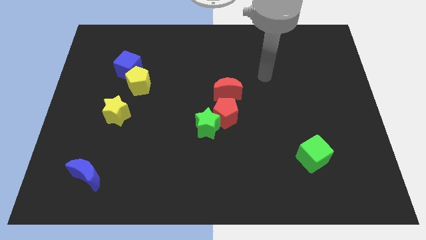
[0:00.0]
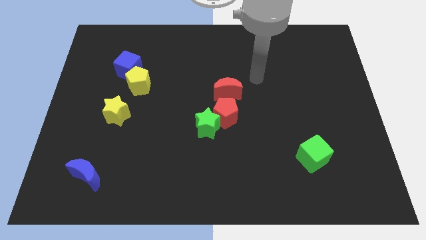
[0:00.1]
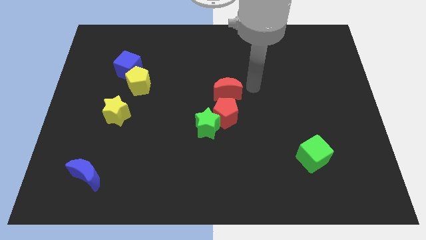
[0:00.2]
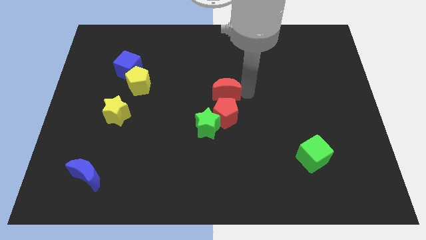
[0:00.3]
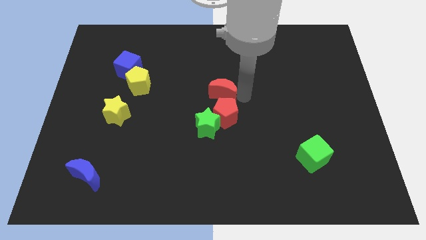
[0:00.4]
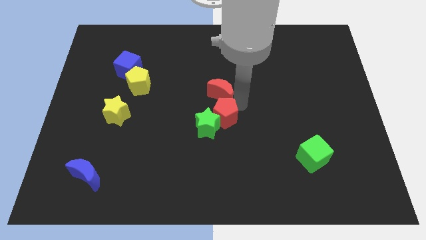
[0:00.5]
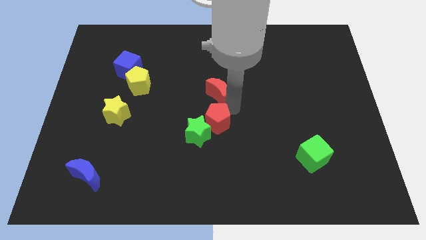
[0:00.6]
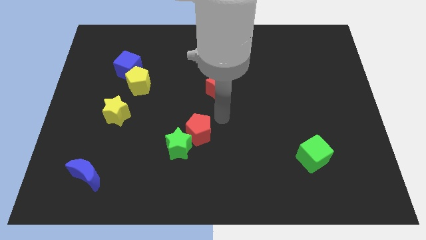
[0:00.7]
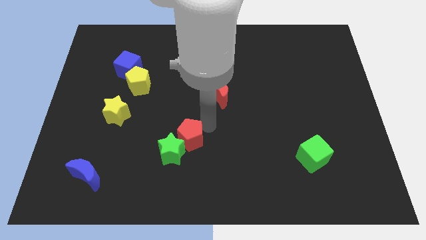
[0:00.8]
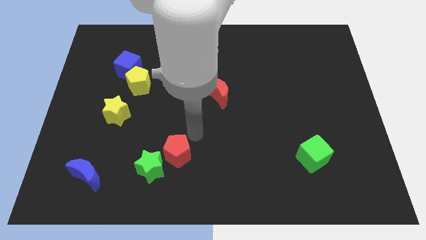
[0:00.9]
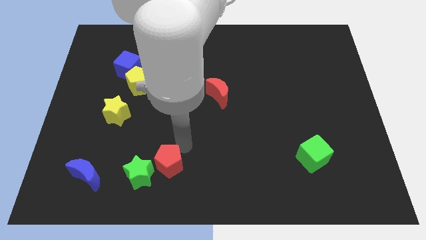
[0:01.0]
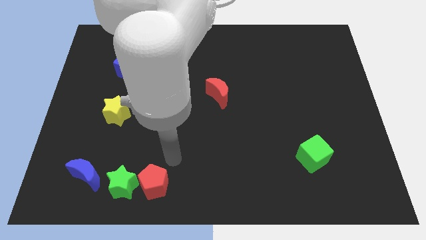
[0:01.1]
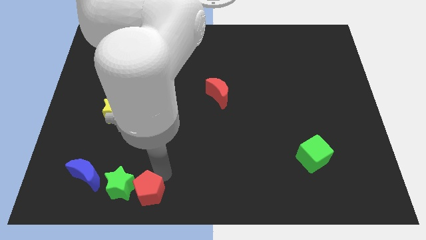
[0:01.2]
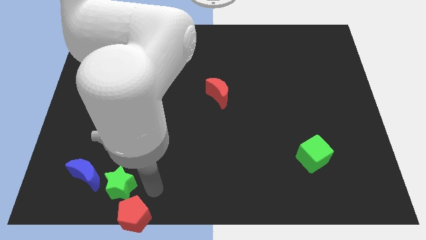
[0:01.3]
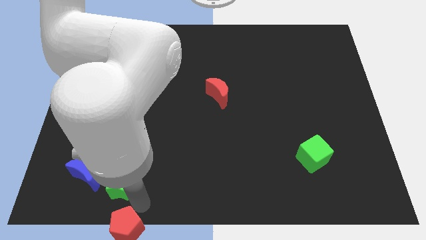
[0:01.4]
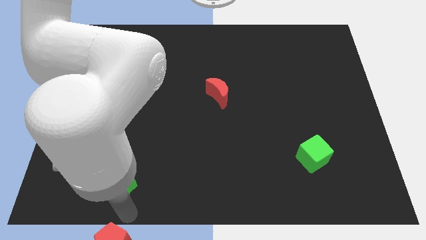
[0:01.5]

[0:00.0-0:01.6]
move the green star away from the red pentagon

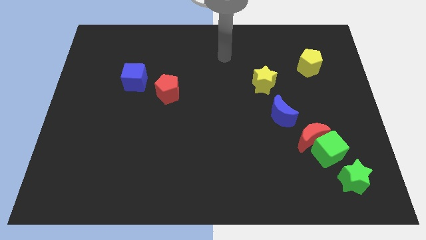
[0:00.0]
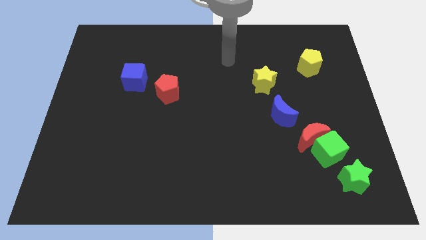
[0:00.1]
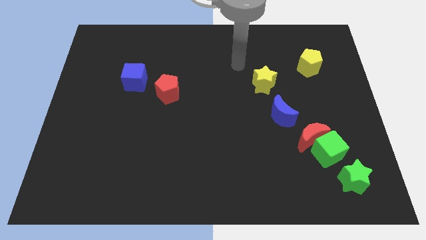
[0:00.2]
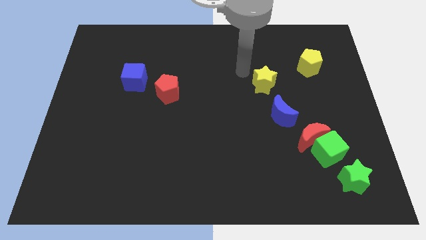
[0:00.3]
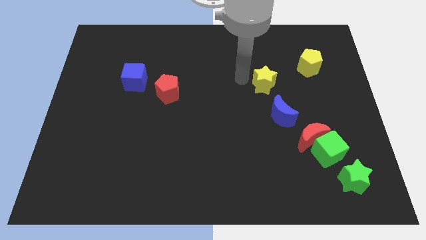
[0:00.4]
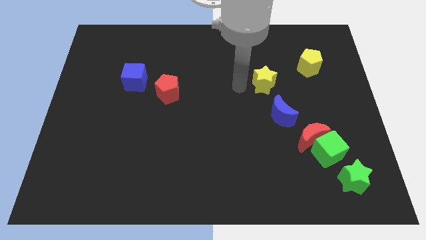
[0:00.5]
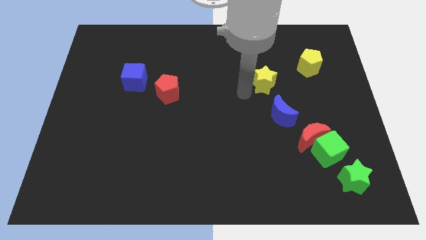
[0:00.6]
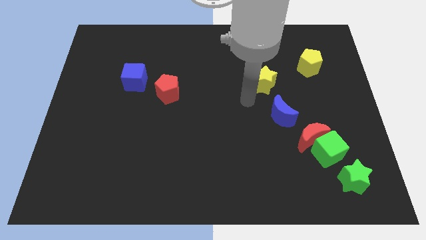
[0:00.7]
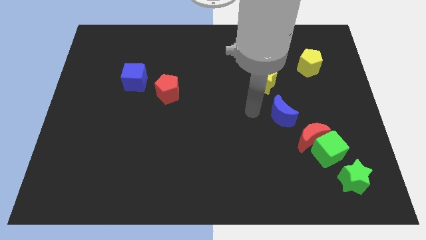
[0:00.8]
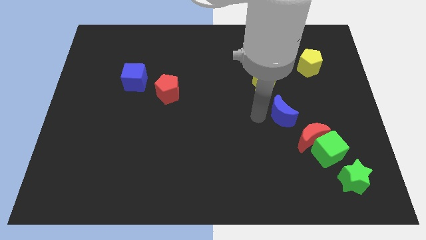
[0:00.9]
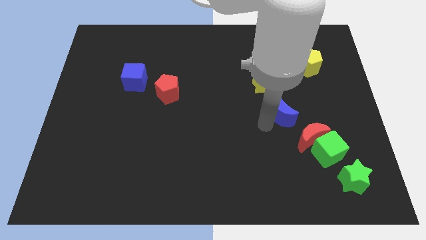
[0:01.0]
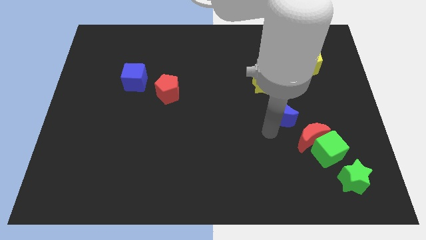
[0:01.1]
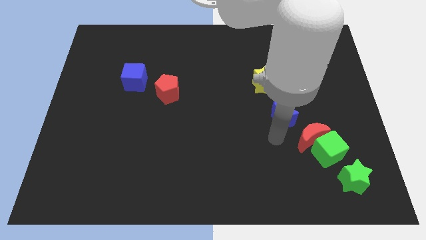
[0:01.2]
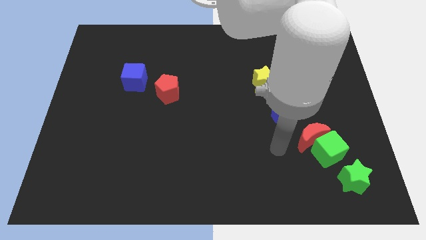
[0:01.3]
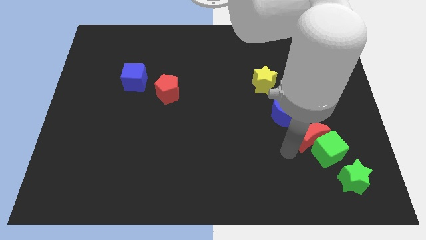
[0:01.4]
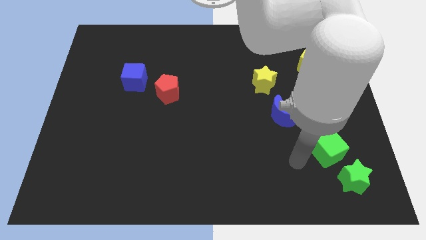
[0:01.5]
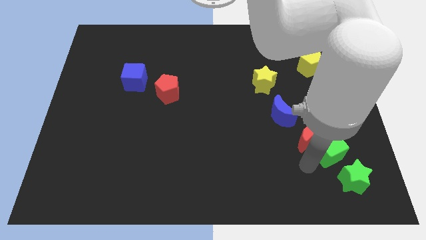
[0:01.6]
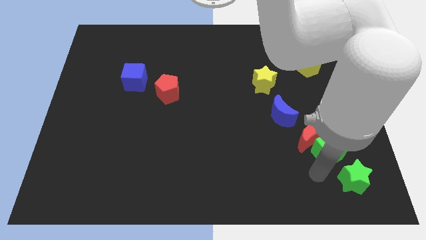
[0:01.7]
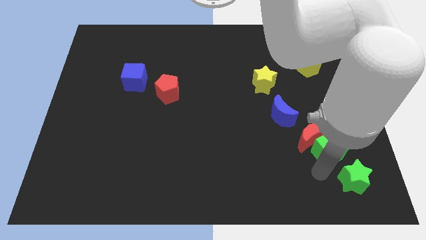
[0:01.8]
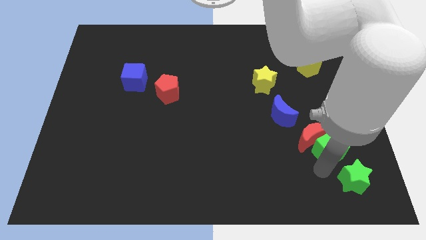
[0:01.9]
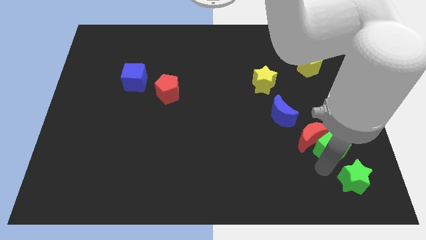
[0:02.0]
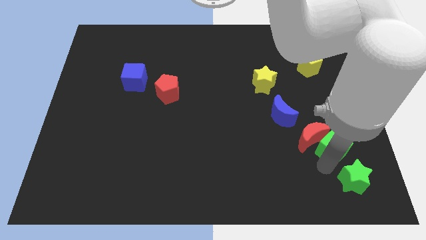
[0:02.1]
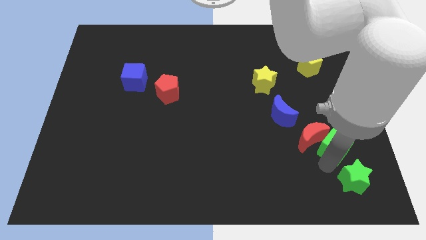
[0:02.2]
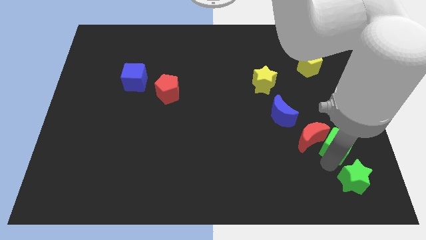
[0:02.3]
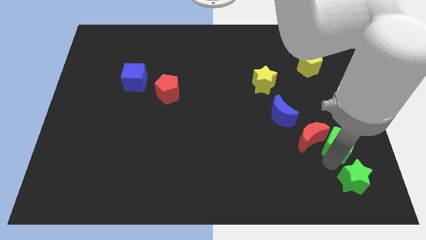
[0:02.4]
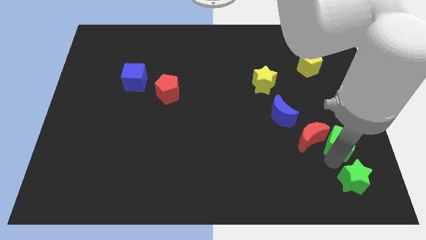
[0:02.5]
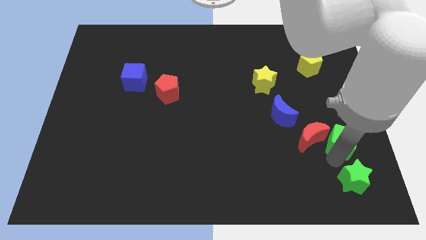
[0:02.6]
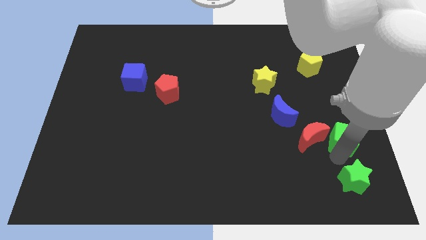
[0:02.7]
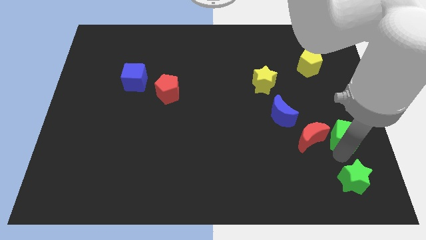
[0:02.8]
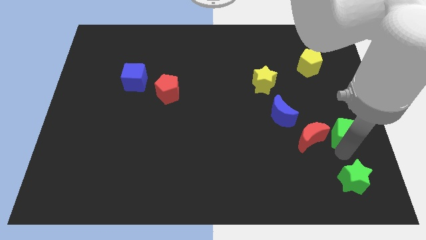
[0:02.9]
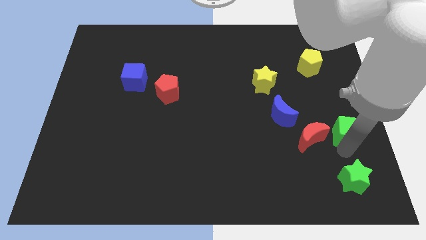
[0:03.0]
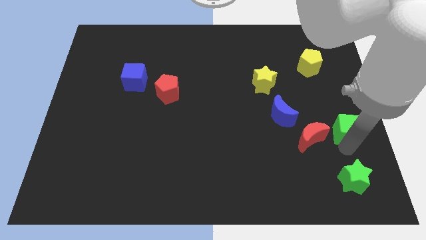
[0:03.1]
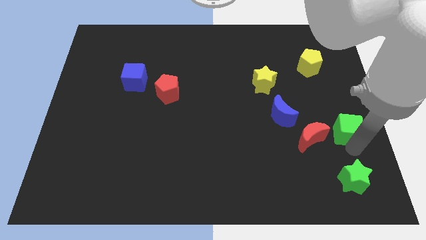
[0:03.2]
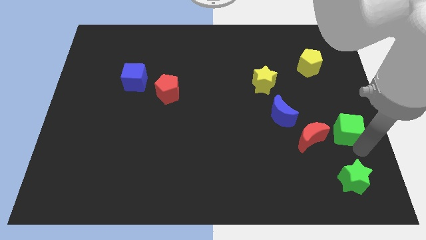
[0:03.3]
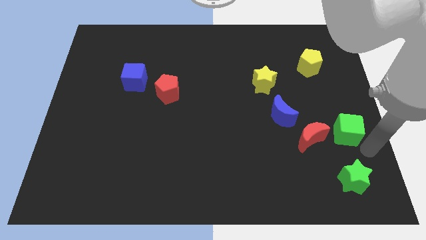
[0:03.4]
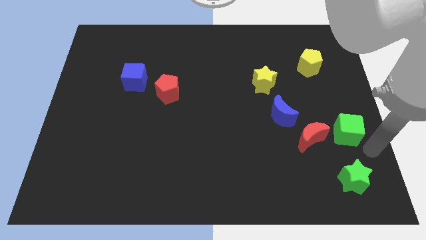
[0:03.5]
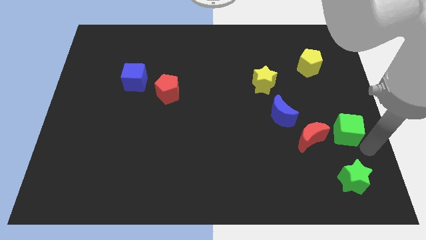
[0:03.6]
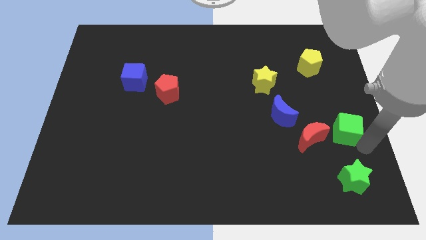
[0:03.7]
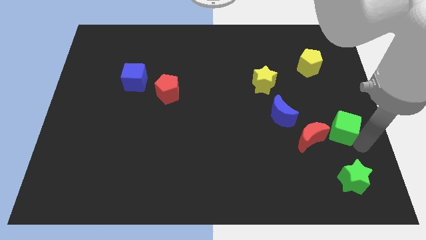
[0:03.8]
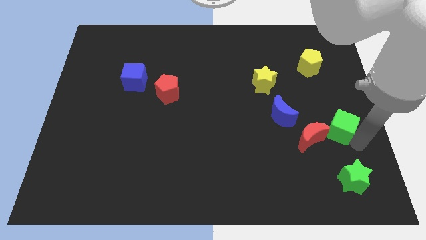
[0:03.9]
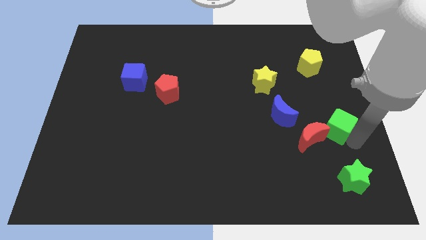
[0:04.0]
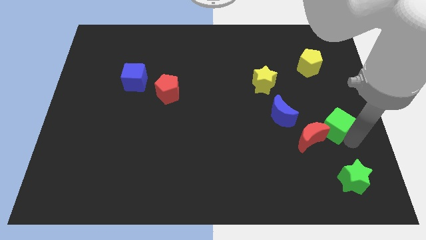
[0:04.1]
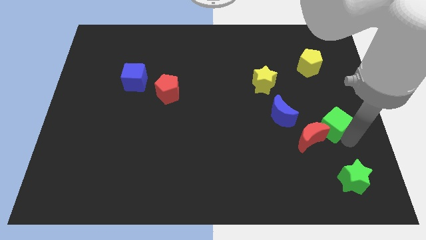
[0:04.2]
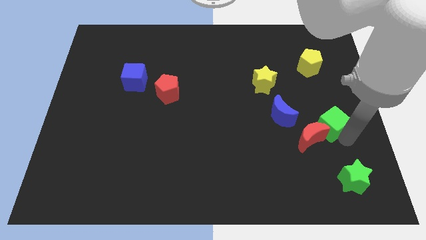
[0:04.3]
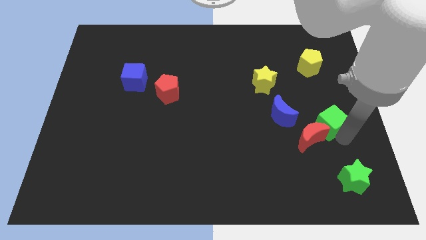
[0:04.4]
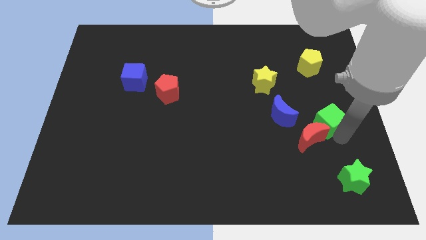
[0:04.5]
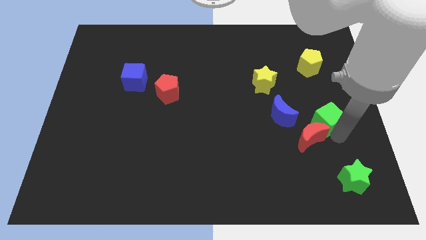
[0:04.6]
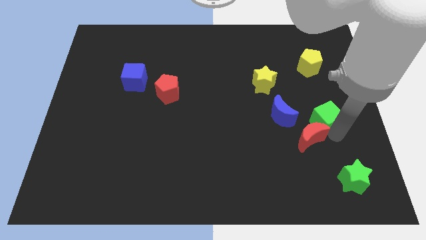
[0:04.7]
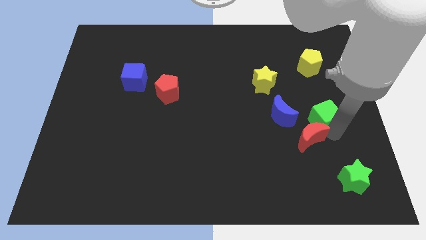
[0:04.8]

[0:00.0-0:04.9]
separate the green cube from the red moon and green star

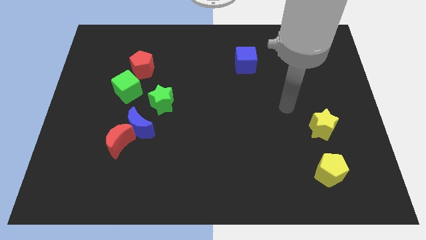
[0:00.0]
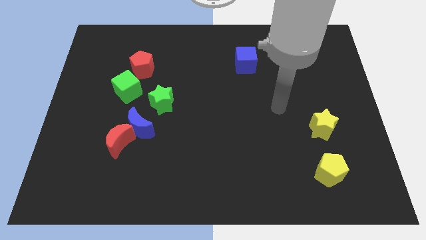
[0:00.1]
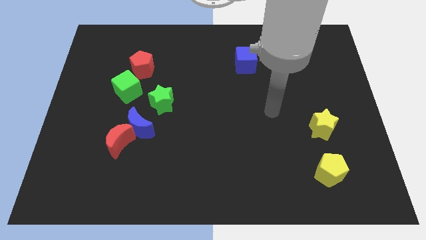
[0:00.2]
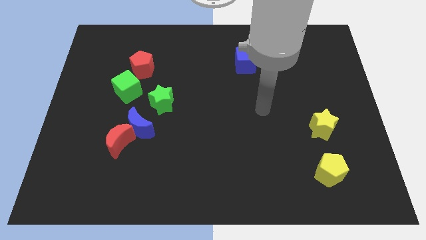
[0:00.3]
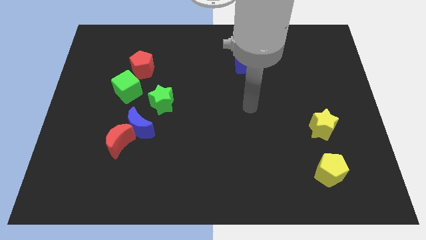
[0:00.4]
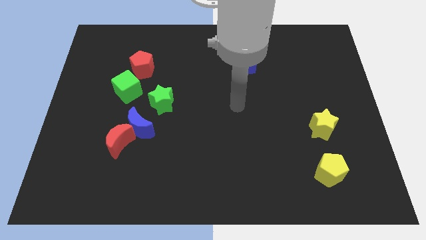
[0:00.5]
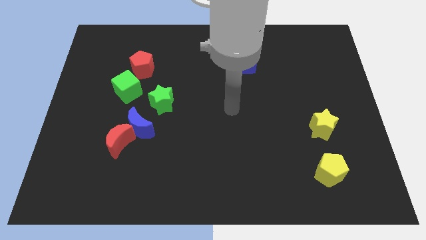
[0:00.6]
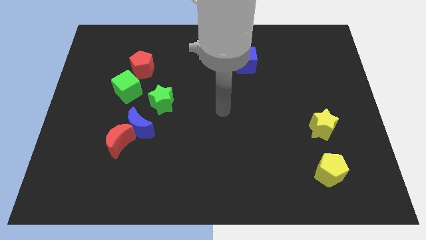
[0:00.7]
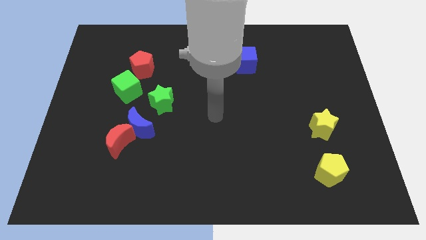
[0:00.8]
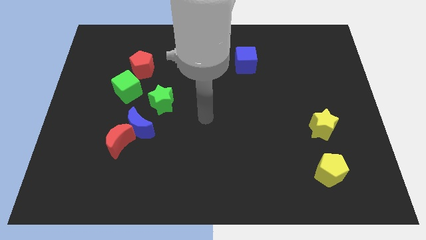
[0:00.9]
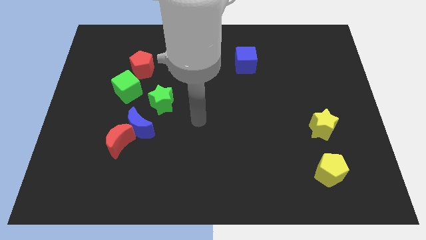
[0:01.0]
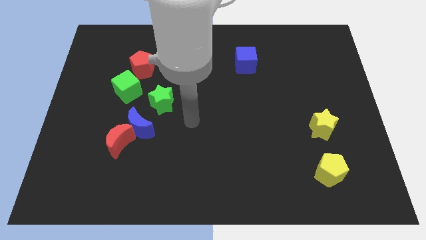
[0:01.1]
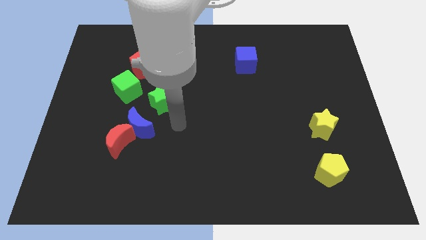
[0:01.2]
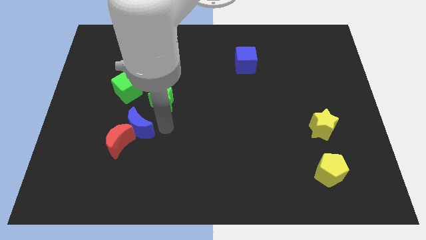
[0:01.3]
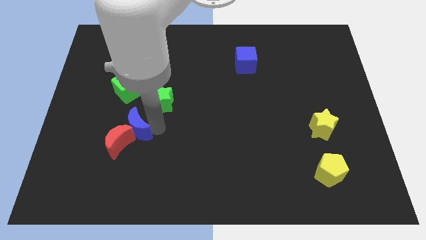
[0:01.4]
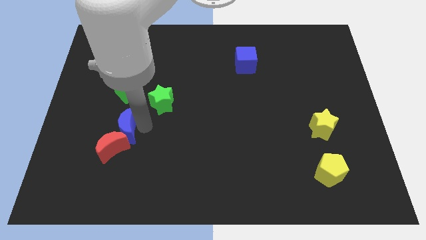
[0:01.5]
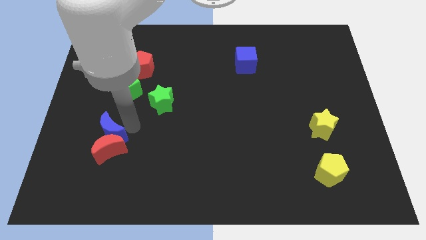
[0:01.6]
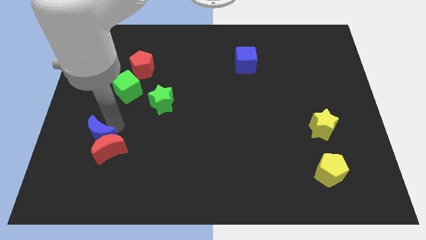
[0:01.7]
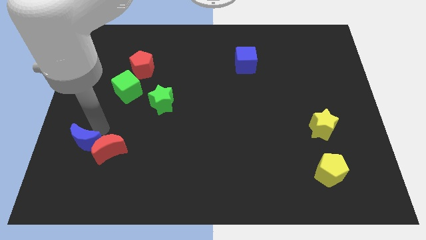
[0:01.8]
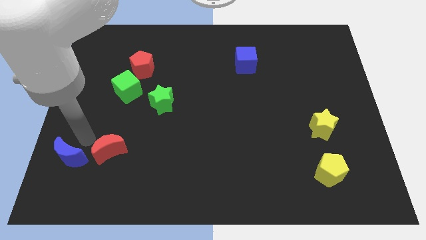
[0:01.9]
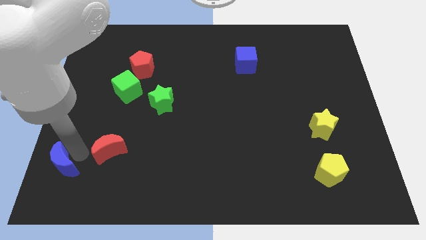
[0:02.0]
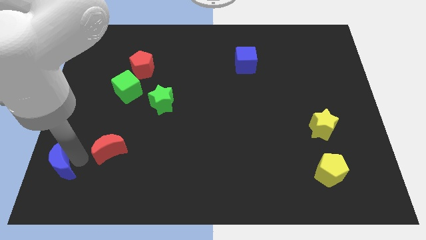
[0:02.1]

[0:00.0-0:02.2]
move the red moon away from the blue moon

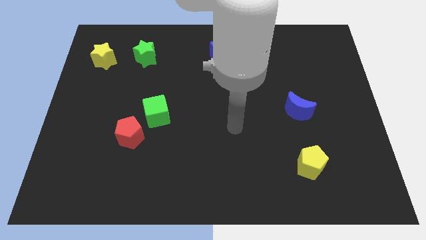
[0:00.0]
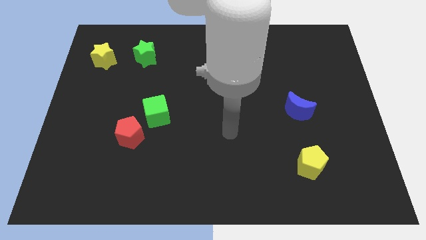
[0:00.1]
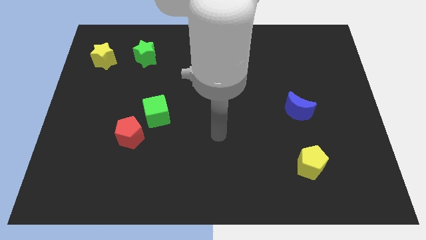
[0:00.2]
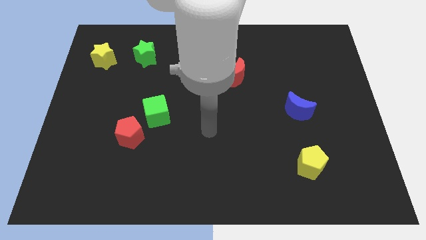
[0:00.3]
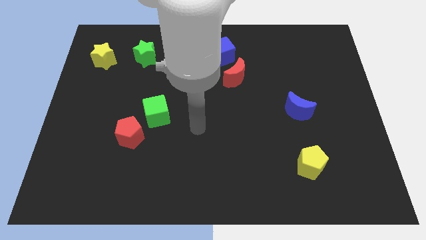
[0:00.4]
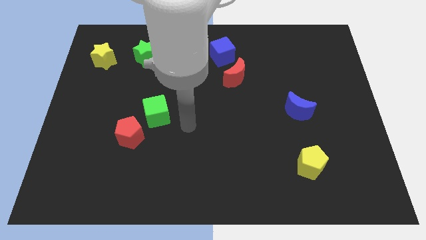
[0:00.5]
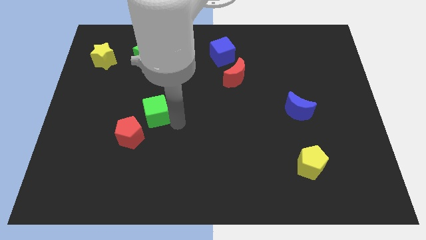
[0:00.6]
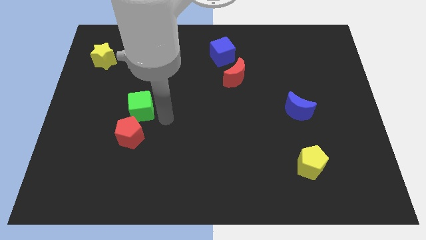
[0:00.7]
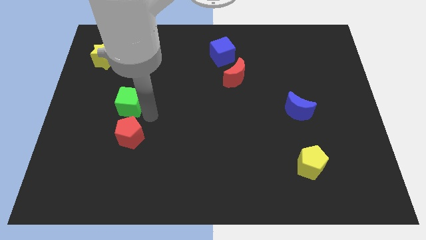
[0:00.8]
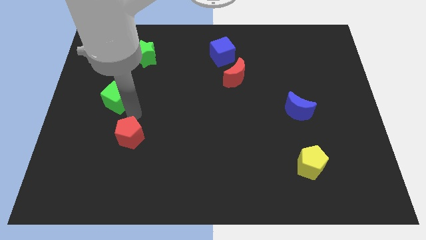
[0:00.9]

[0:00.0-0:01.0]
move the red pentagon away from the green cube
